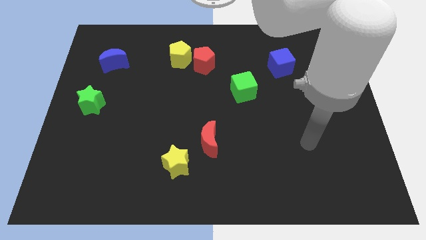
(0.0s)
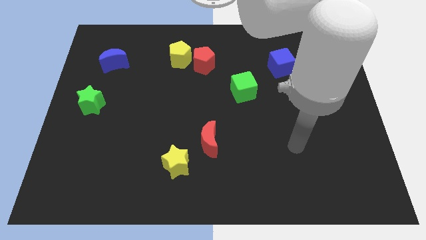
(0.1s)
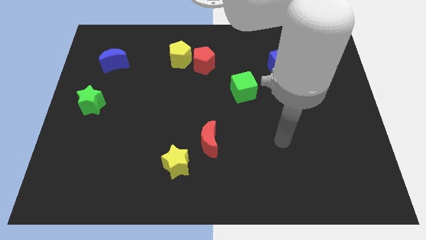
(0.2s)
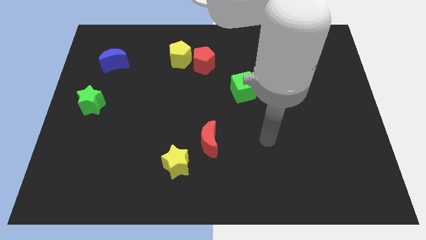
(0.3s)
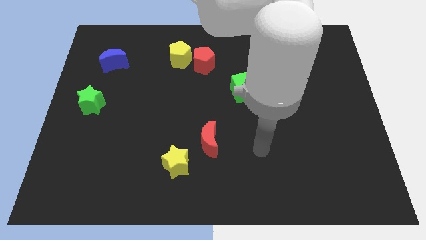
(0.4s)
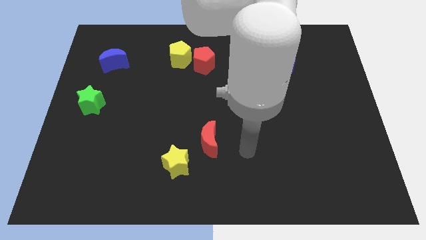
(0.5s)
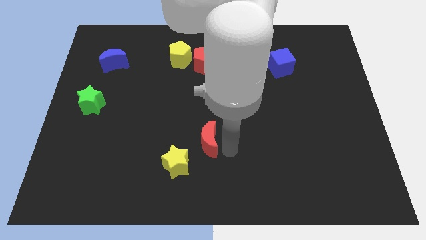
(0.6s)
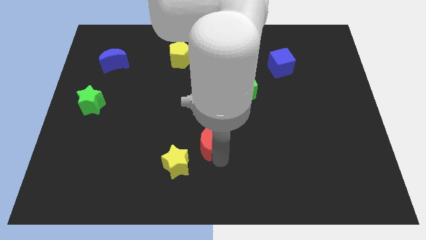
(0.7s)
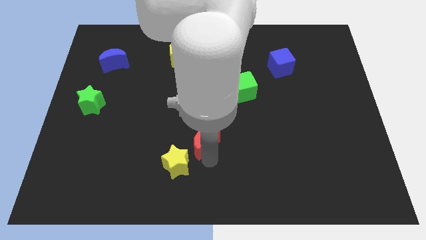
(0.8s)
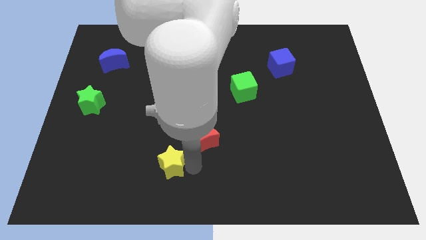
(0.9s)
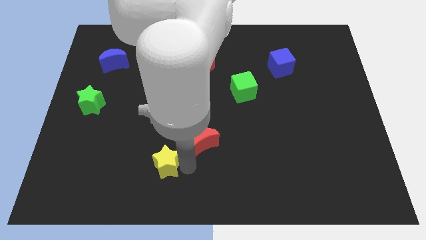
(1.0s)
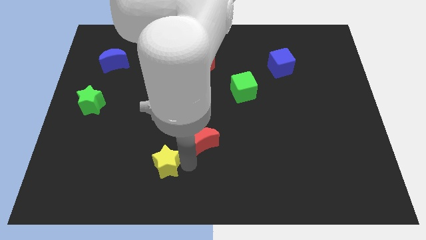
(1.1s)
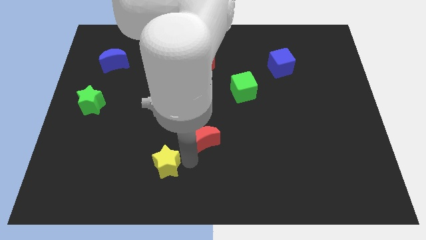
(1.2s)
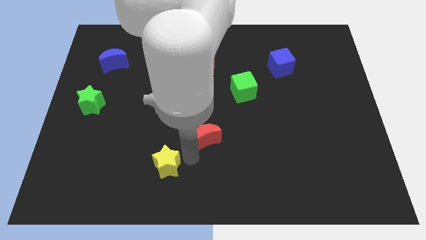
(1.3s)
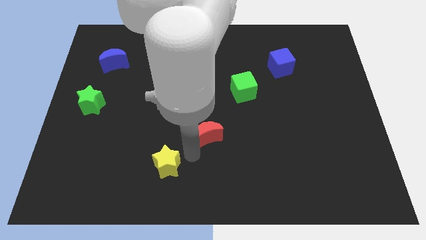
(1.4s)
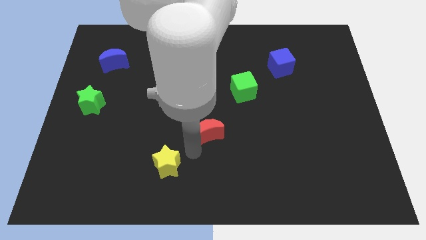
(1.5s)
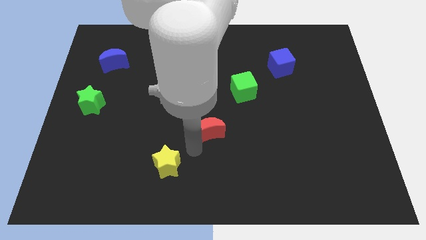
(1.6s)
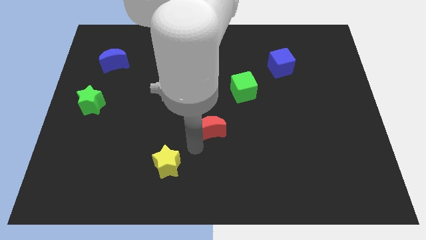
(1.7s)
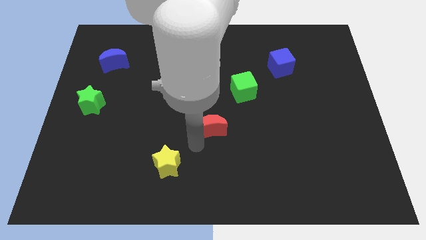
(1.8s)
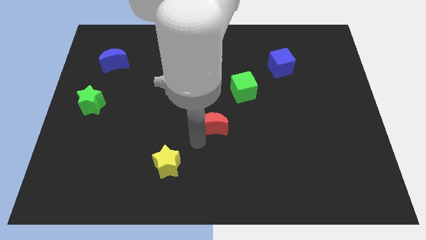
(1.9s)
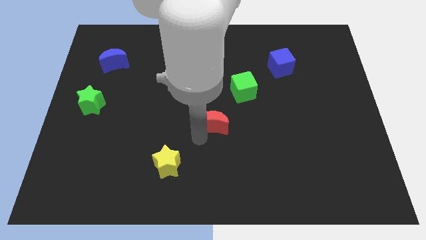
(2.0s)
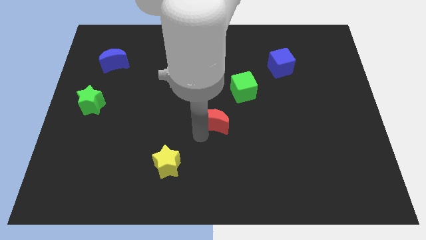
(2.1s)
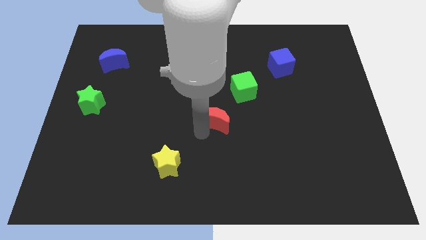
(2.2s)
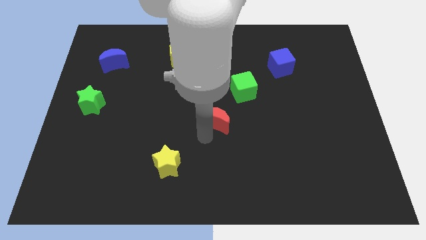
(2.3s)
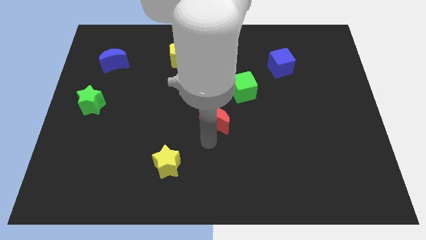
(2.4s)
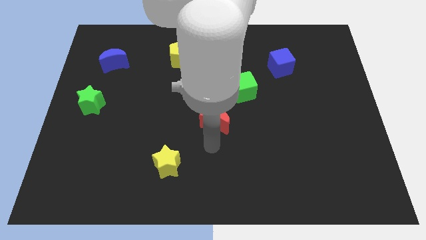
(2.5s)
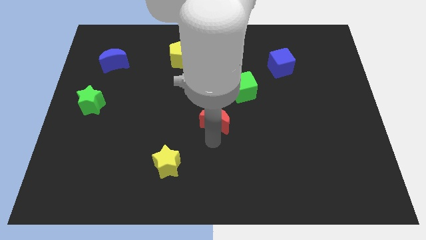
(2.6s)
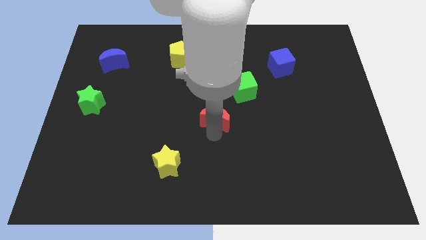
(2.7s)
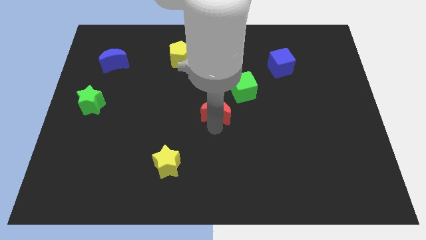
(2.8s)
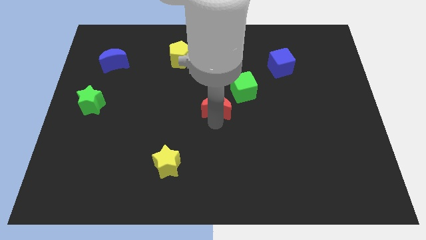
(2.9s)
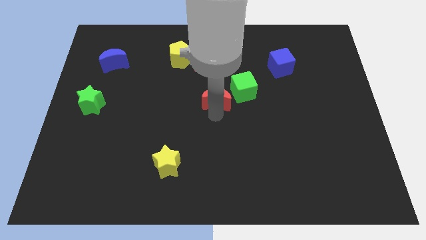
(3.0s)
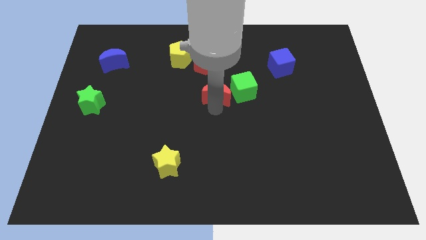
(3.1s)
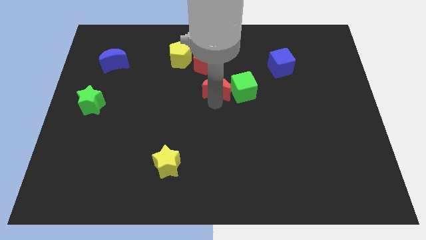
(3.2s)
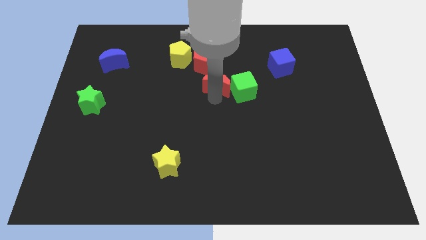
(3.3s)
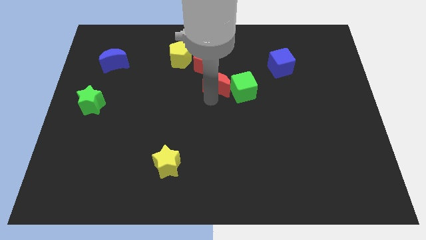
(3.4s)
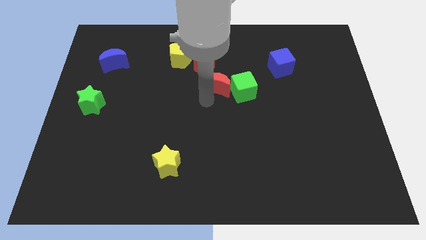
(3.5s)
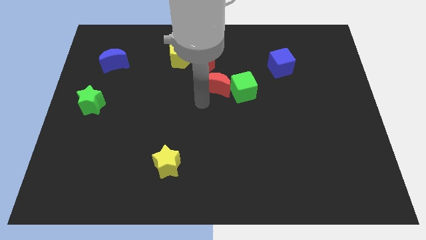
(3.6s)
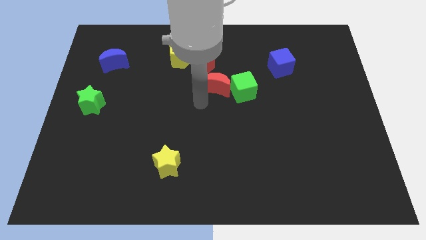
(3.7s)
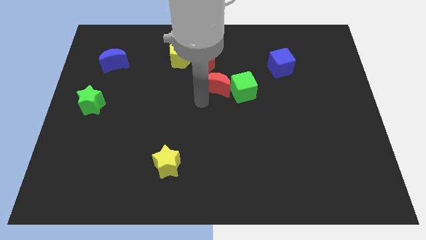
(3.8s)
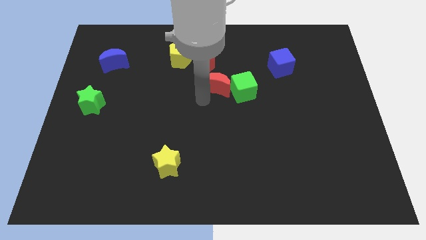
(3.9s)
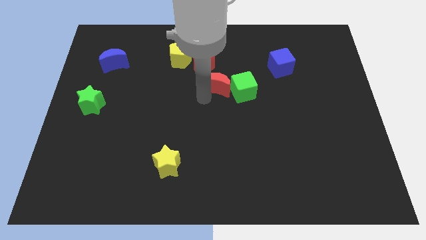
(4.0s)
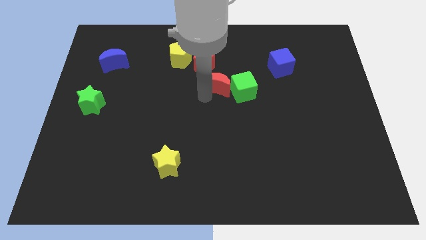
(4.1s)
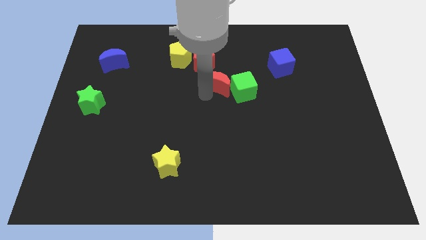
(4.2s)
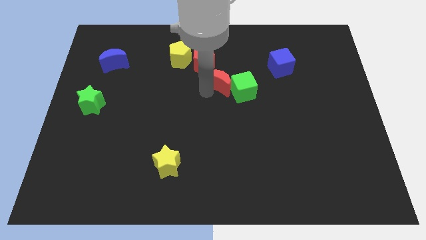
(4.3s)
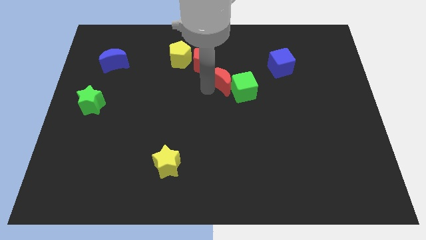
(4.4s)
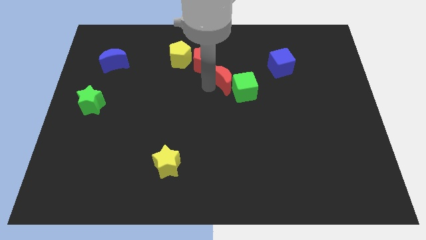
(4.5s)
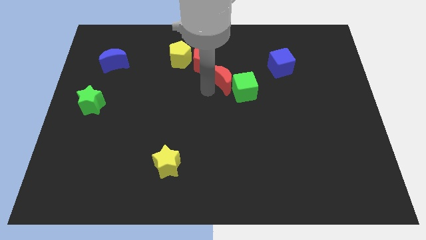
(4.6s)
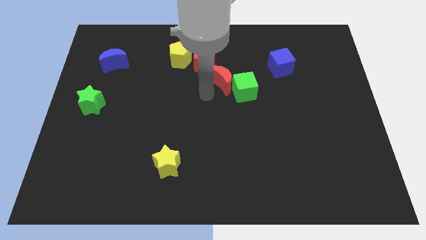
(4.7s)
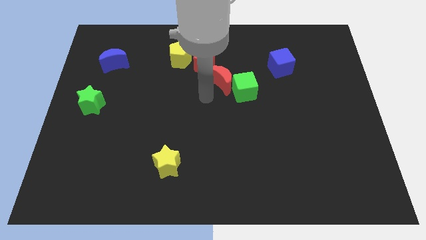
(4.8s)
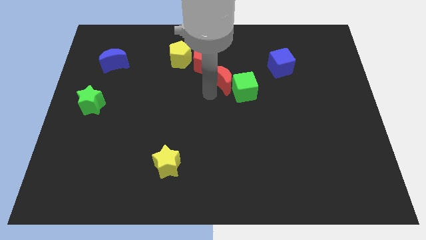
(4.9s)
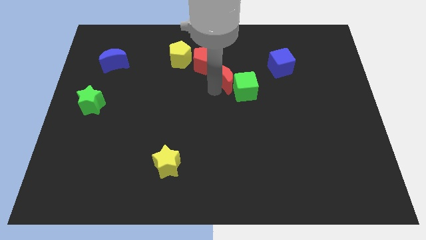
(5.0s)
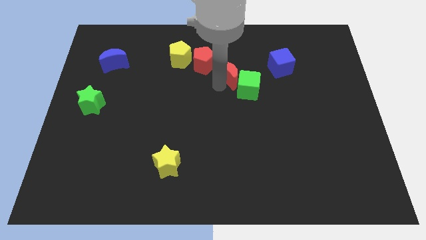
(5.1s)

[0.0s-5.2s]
put the red moon to the left of the blue cube

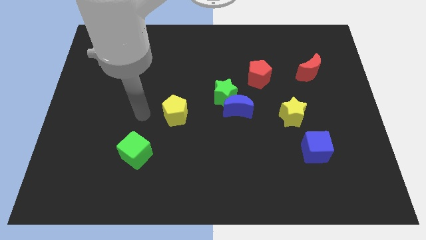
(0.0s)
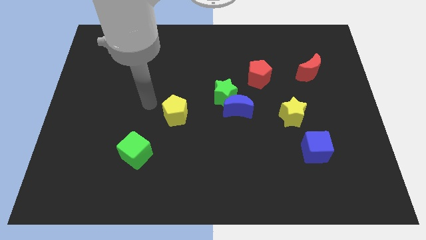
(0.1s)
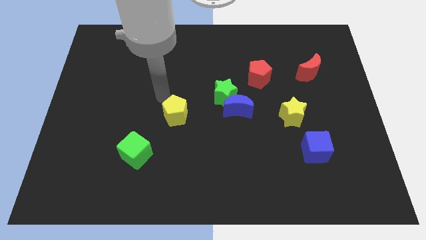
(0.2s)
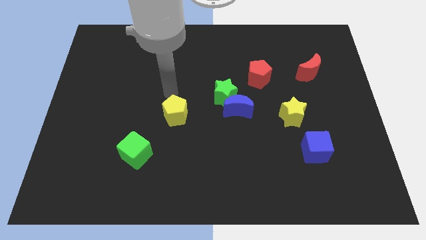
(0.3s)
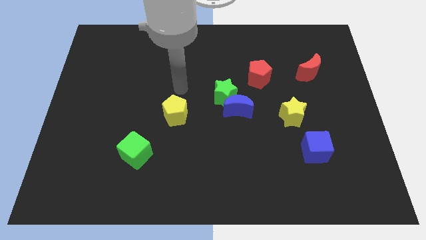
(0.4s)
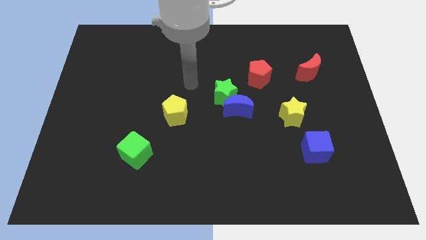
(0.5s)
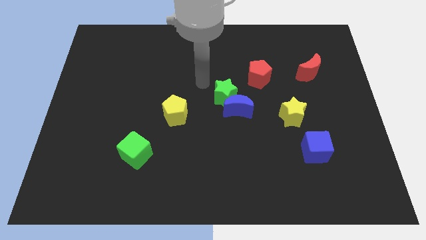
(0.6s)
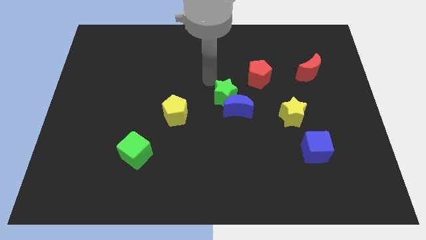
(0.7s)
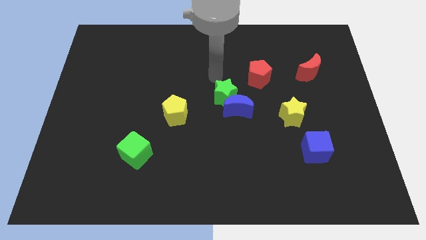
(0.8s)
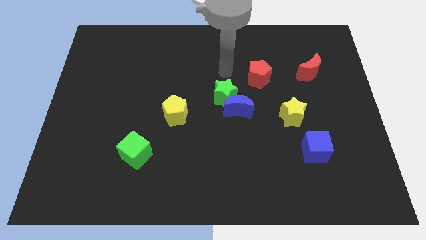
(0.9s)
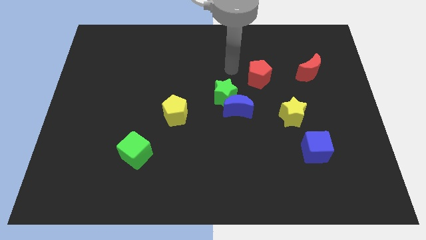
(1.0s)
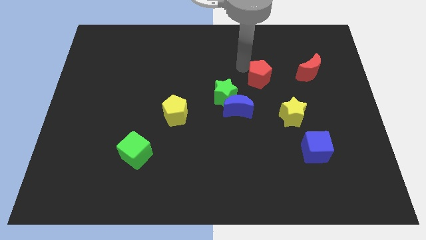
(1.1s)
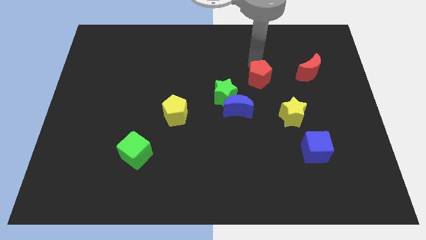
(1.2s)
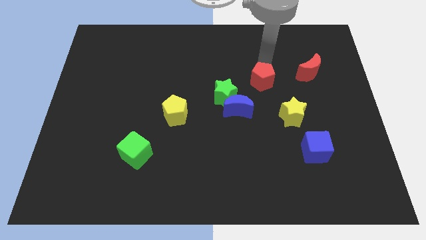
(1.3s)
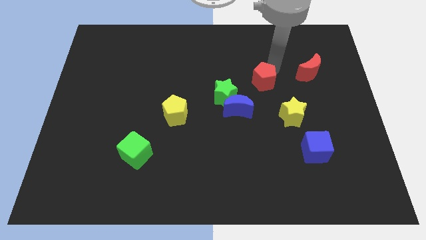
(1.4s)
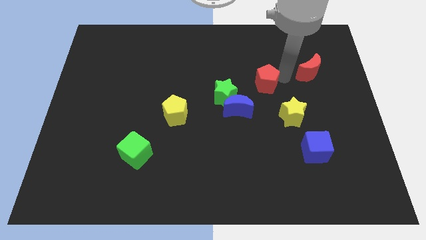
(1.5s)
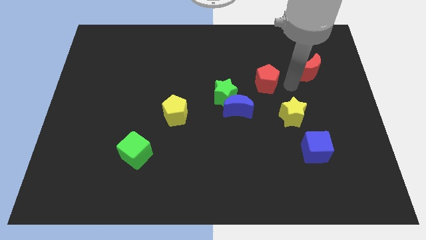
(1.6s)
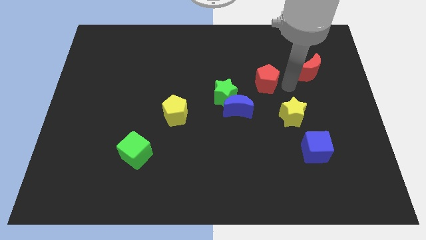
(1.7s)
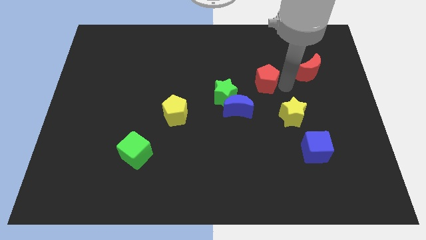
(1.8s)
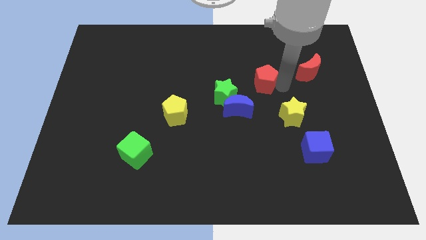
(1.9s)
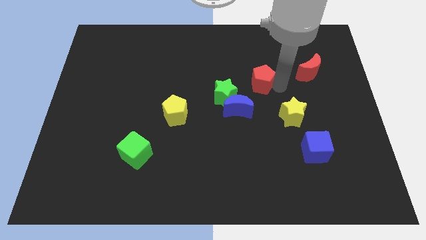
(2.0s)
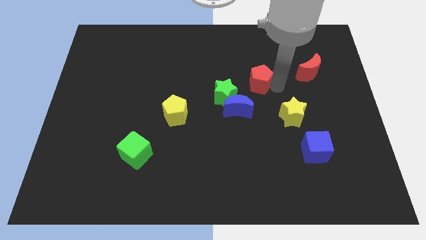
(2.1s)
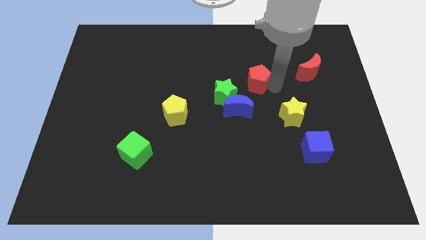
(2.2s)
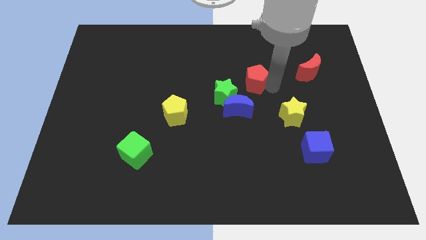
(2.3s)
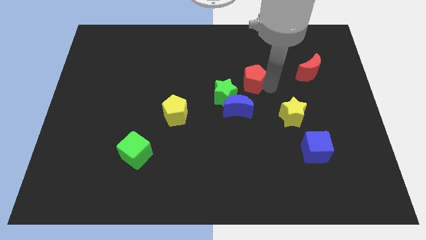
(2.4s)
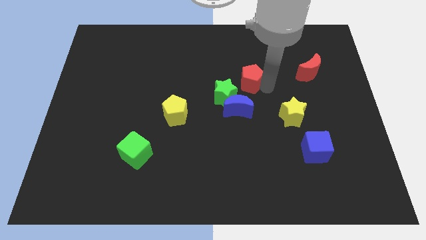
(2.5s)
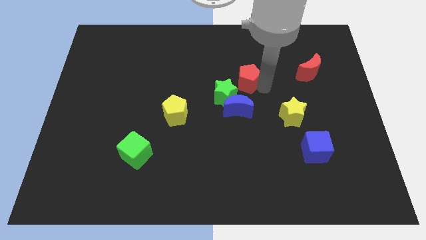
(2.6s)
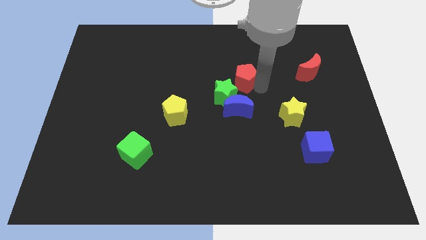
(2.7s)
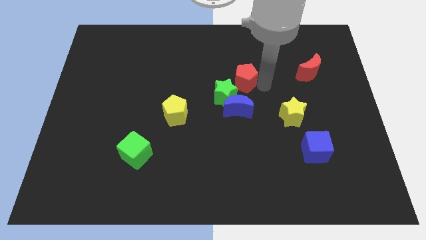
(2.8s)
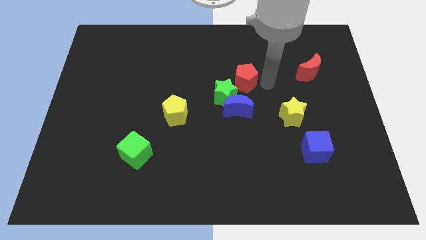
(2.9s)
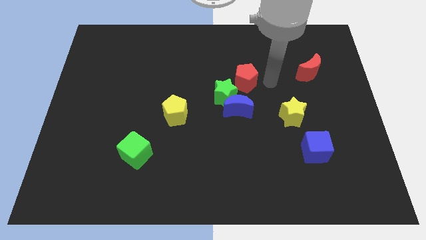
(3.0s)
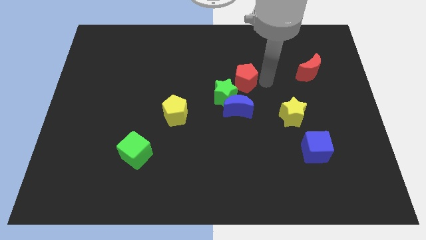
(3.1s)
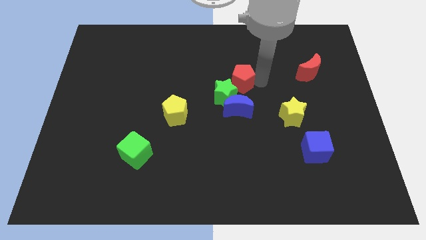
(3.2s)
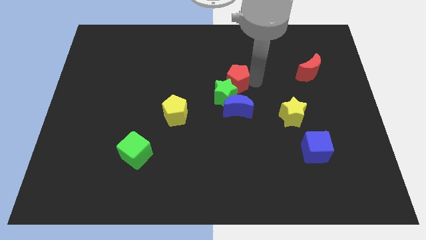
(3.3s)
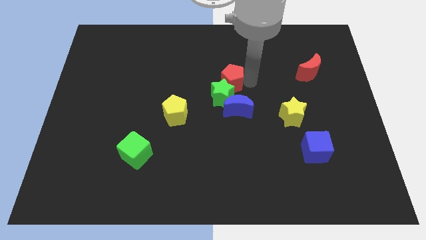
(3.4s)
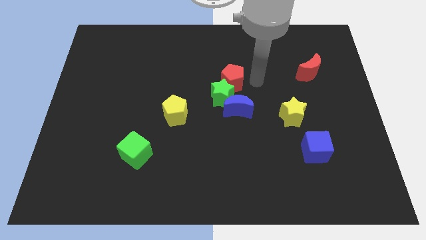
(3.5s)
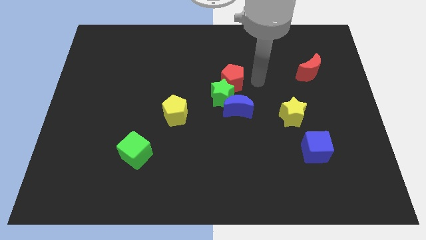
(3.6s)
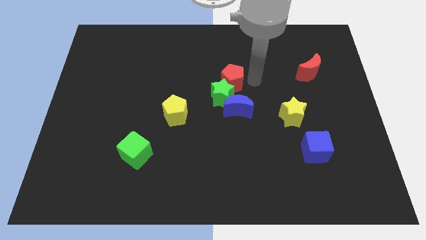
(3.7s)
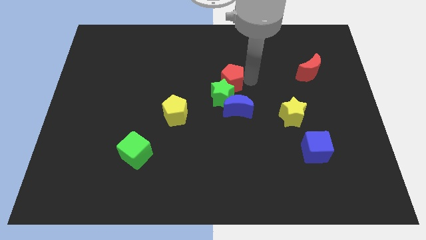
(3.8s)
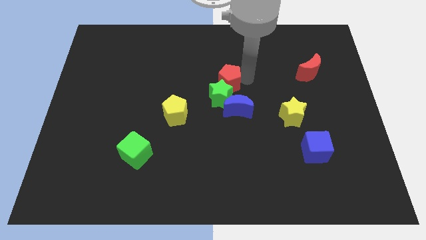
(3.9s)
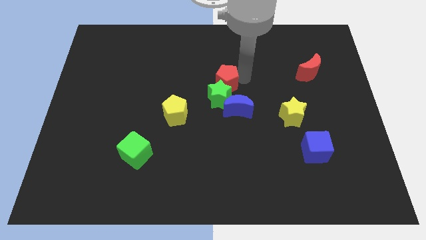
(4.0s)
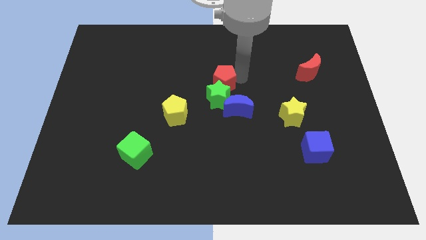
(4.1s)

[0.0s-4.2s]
put the red pentagon to the top left of the green star
